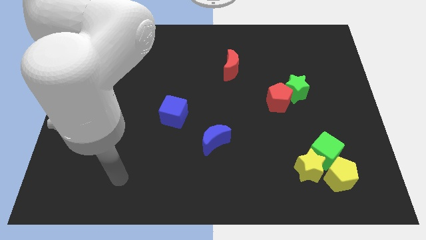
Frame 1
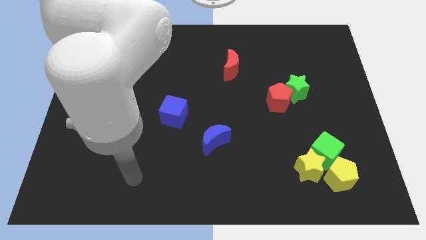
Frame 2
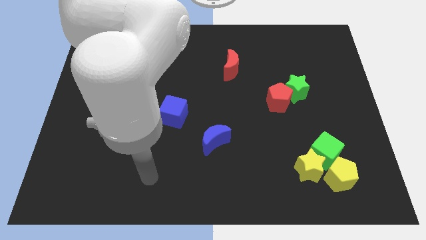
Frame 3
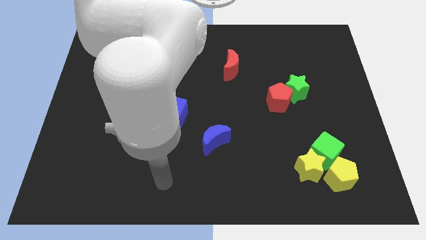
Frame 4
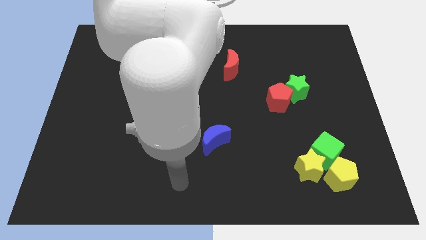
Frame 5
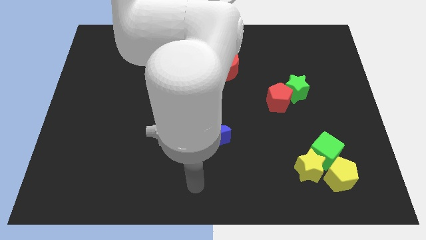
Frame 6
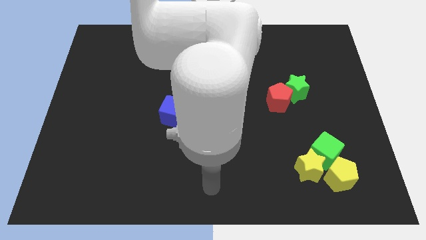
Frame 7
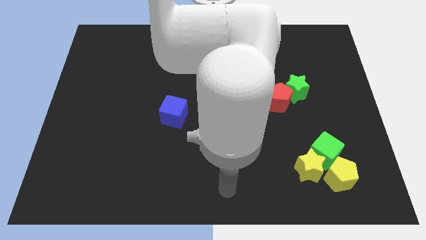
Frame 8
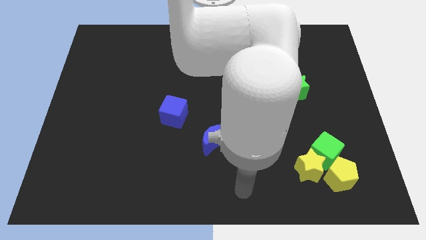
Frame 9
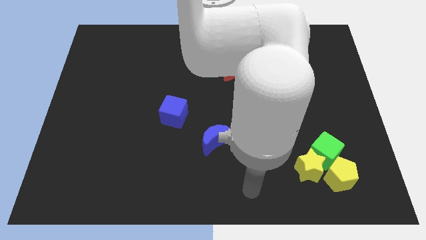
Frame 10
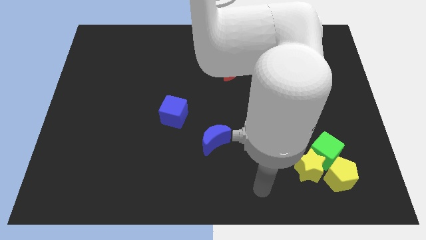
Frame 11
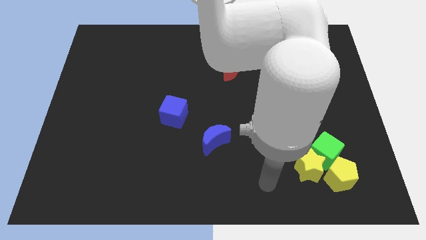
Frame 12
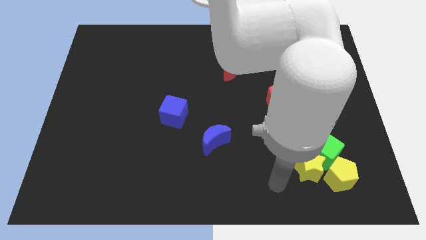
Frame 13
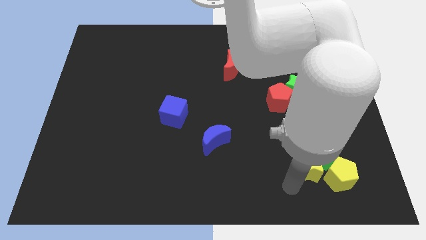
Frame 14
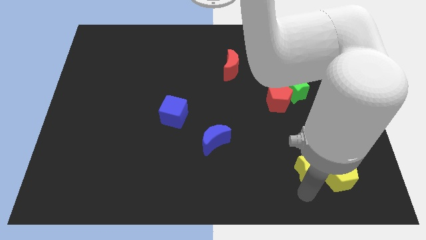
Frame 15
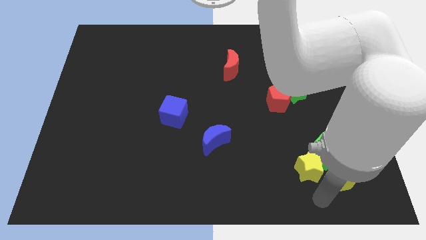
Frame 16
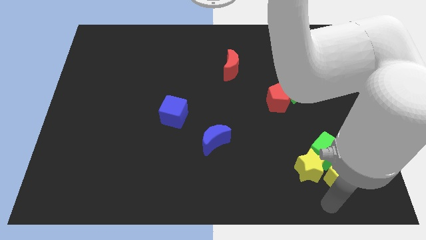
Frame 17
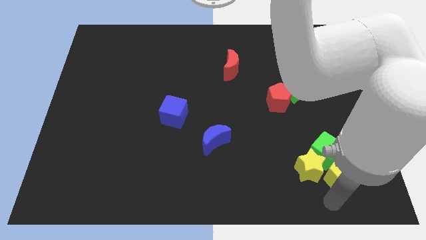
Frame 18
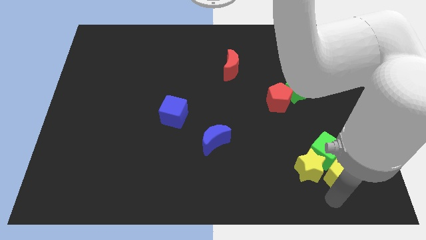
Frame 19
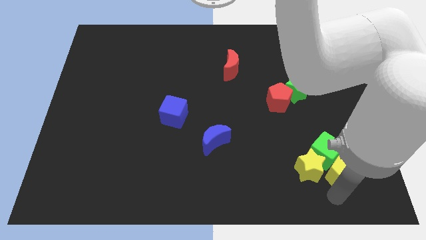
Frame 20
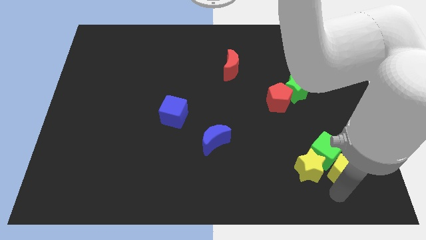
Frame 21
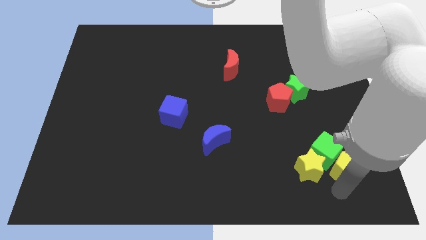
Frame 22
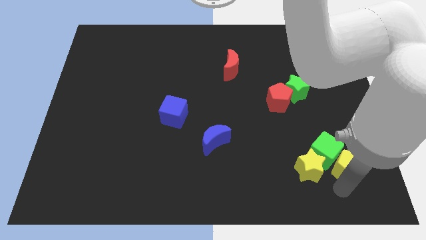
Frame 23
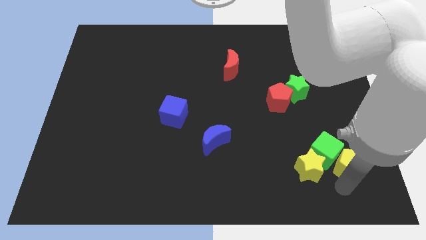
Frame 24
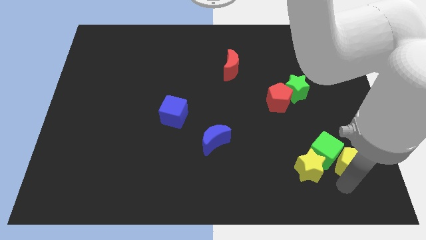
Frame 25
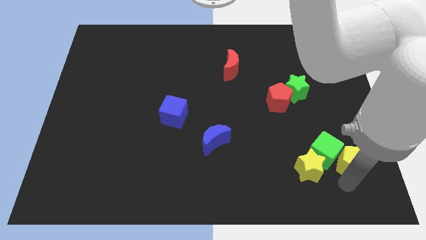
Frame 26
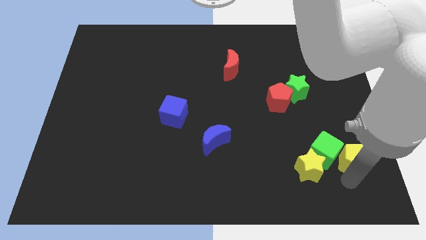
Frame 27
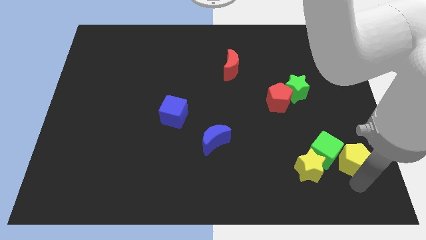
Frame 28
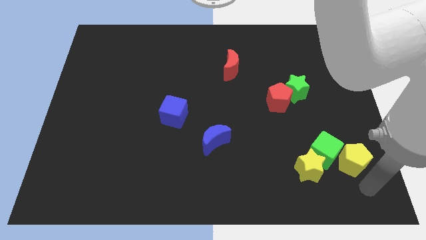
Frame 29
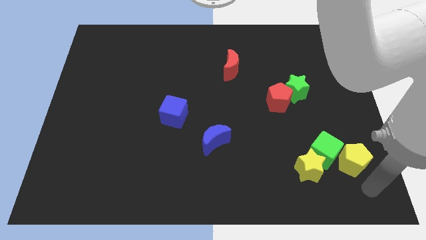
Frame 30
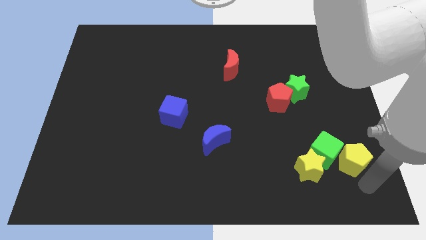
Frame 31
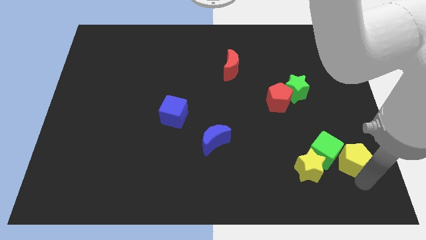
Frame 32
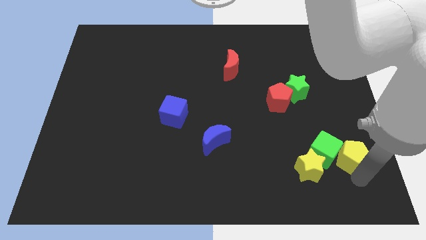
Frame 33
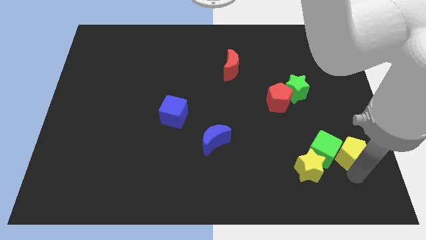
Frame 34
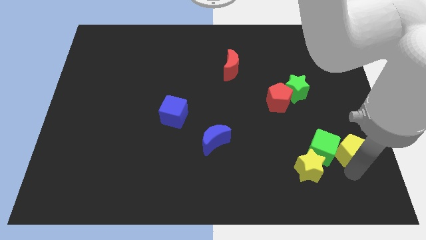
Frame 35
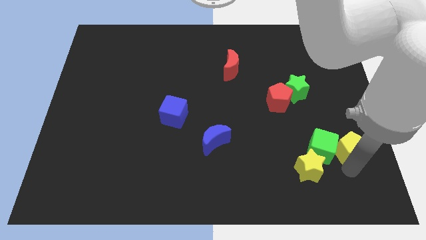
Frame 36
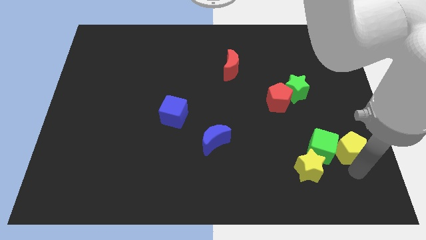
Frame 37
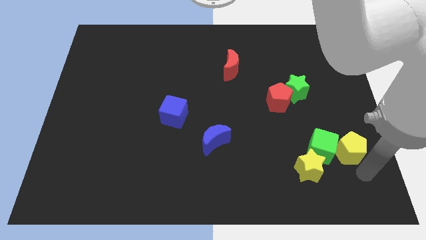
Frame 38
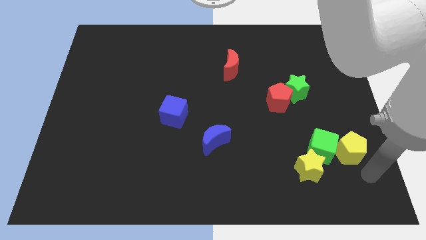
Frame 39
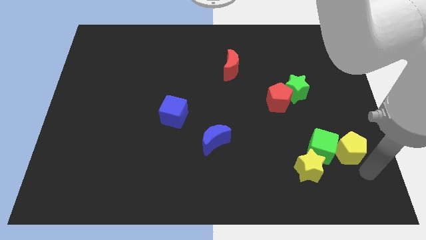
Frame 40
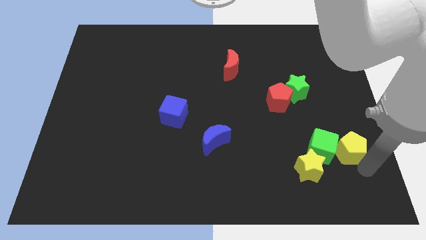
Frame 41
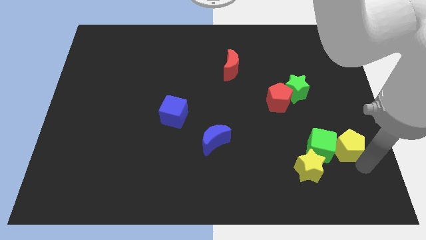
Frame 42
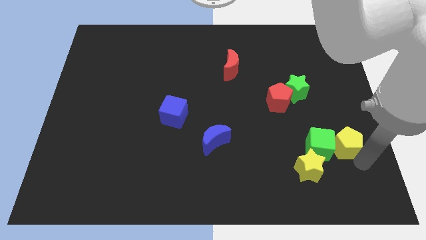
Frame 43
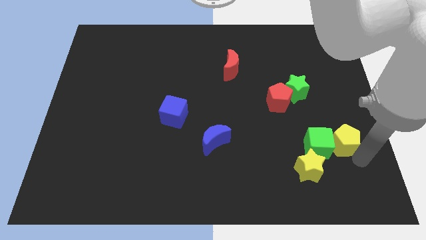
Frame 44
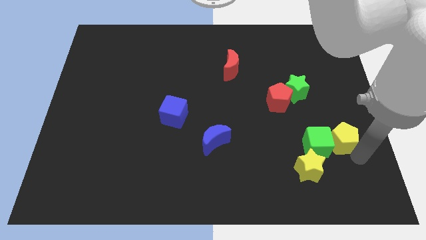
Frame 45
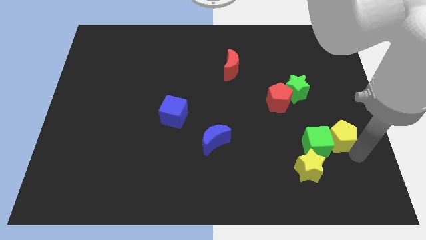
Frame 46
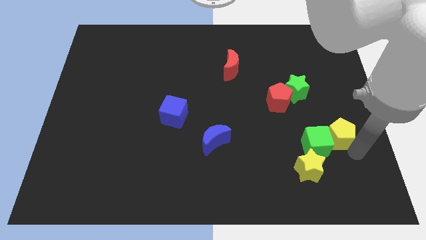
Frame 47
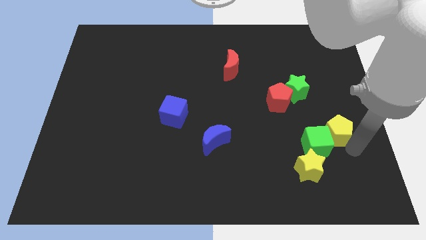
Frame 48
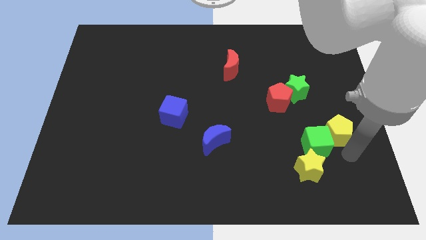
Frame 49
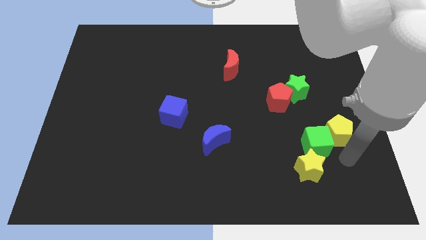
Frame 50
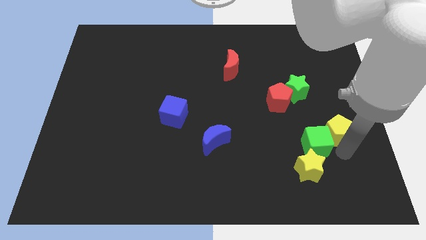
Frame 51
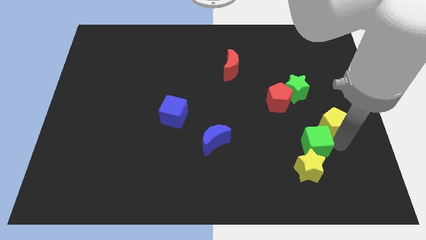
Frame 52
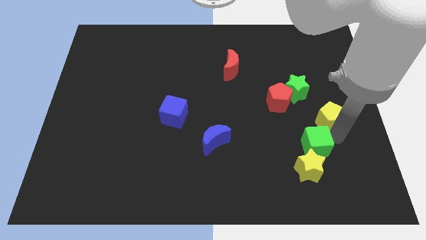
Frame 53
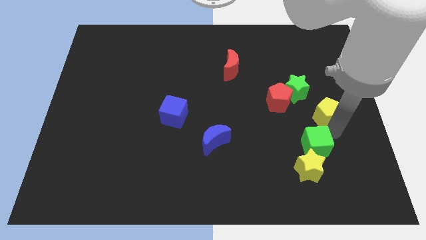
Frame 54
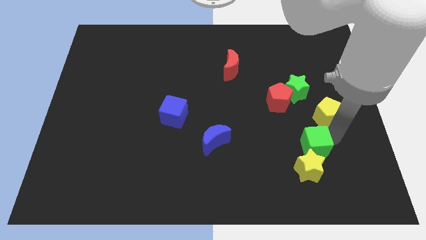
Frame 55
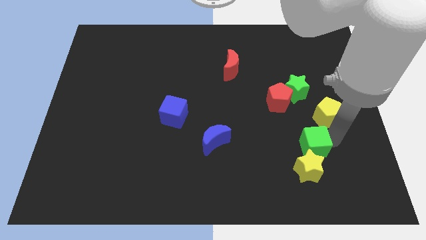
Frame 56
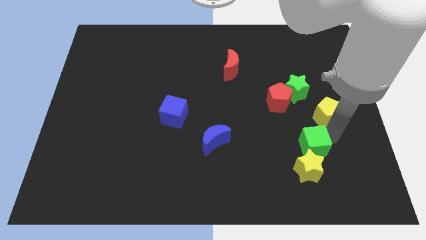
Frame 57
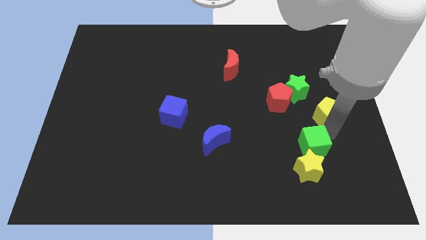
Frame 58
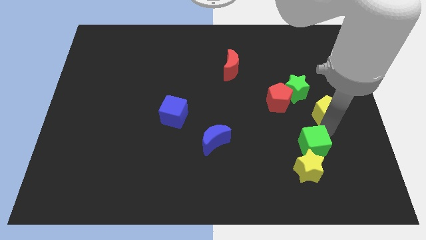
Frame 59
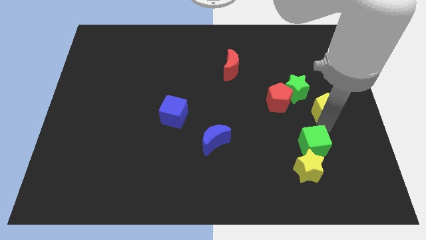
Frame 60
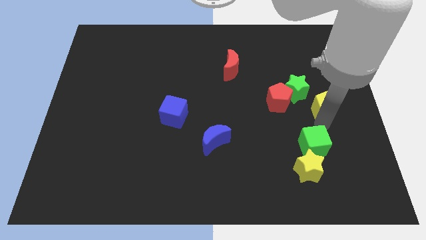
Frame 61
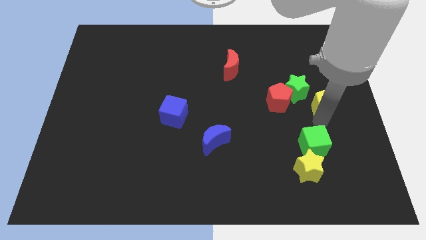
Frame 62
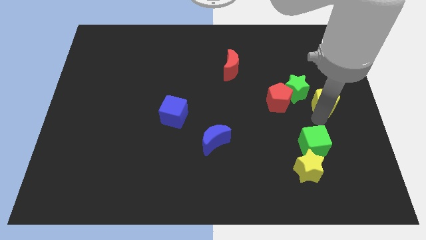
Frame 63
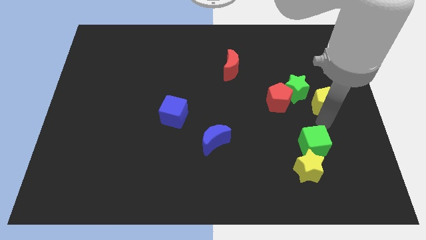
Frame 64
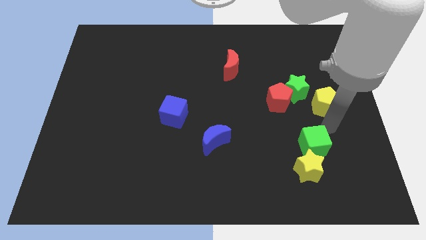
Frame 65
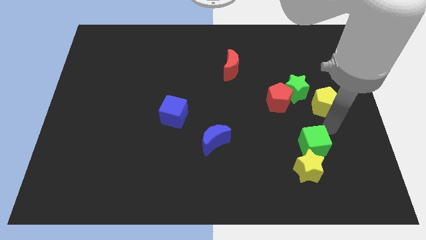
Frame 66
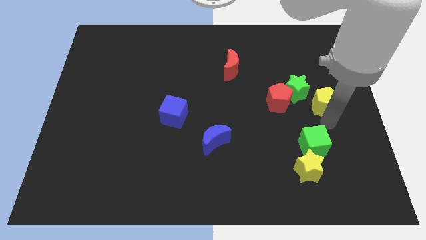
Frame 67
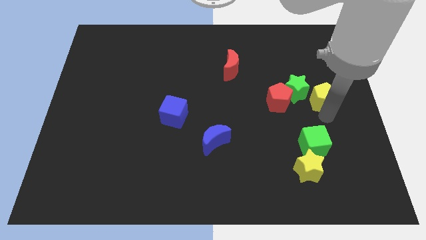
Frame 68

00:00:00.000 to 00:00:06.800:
move the yellow pentagon up

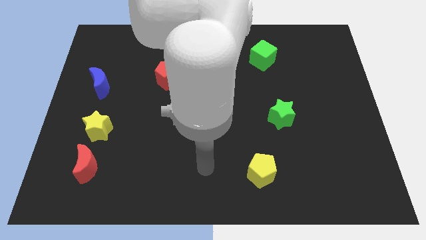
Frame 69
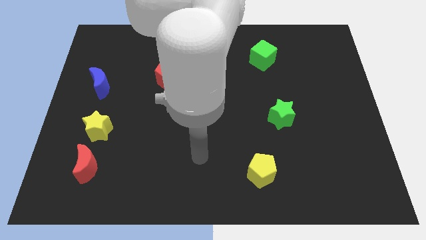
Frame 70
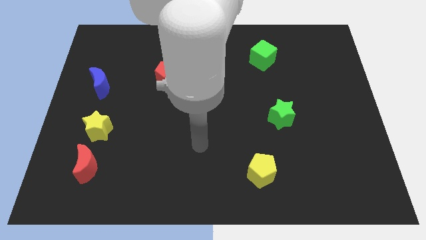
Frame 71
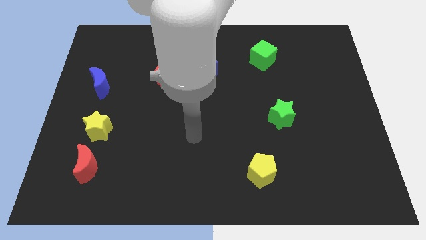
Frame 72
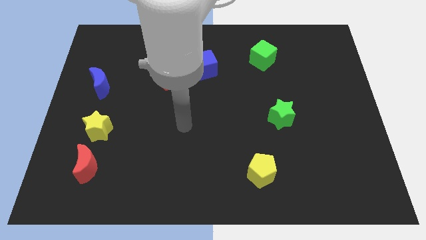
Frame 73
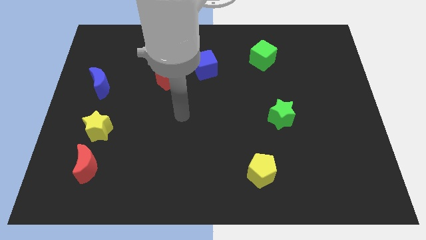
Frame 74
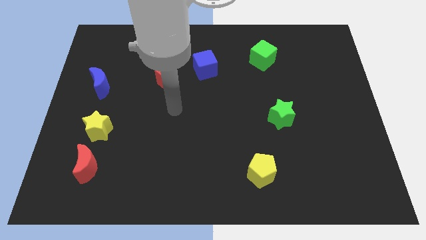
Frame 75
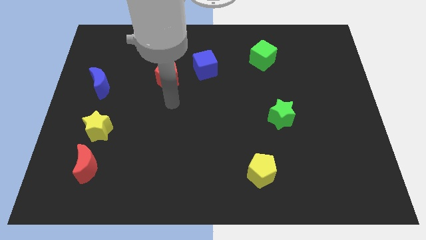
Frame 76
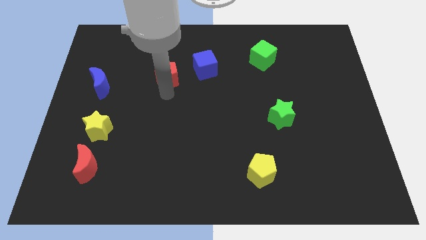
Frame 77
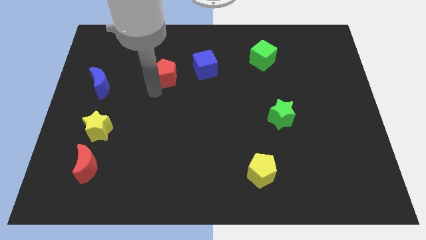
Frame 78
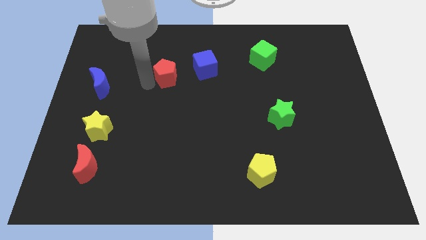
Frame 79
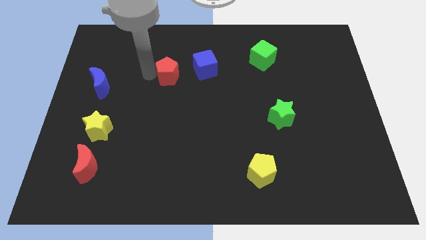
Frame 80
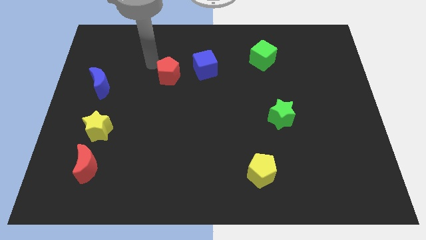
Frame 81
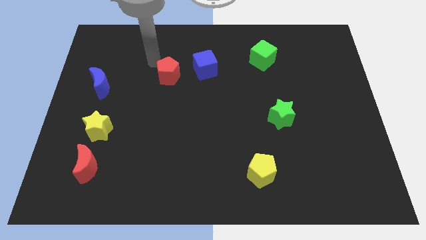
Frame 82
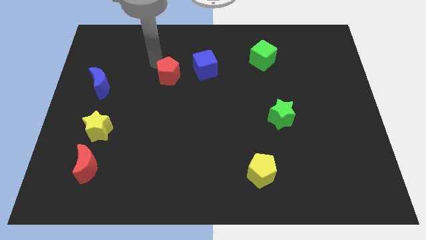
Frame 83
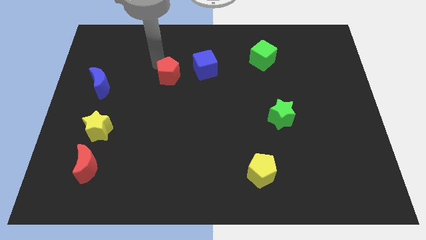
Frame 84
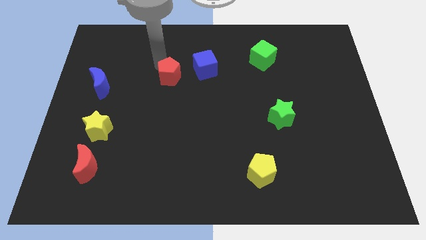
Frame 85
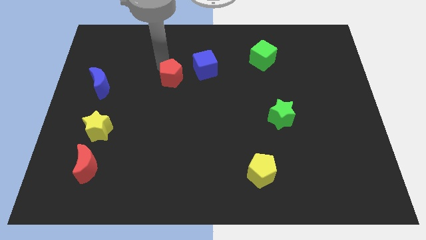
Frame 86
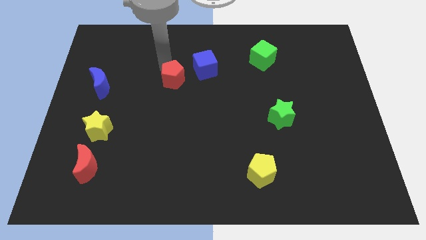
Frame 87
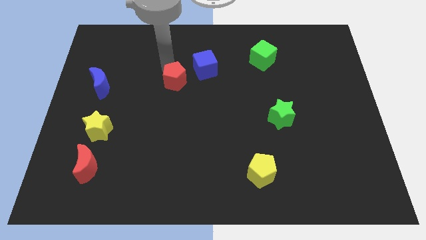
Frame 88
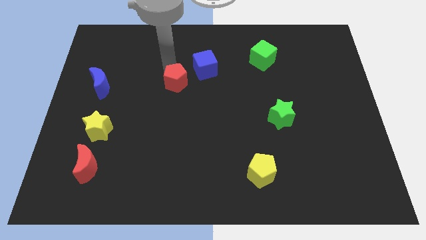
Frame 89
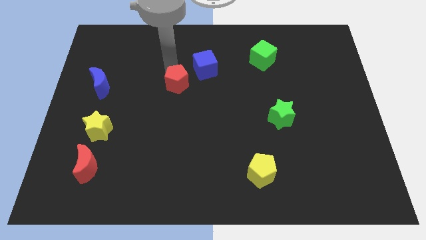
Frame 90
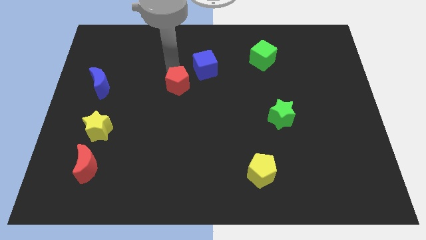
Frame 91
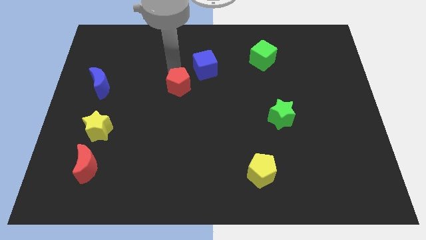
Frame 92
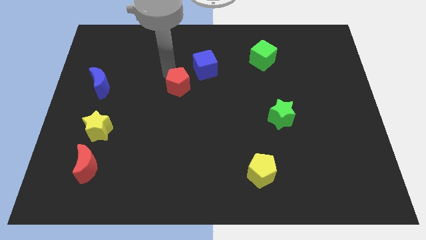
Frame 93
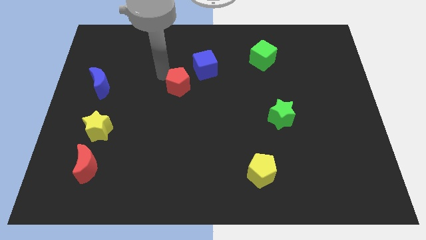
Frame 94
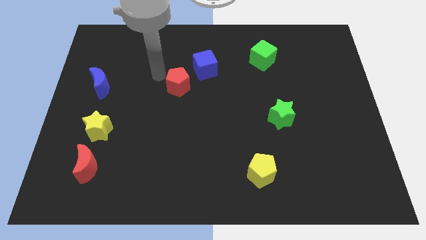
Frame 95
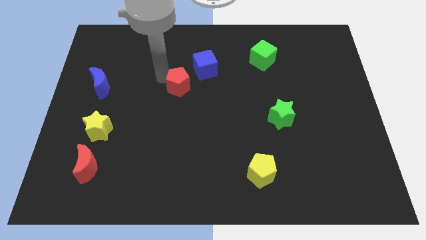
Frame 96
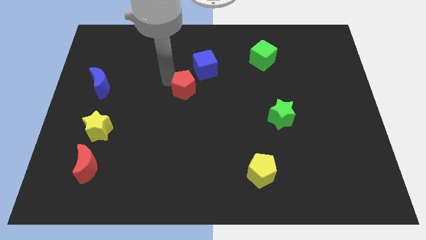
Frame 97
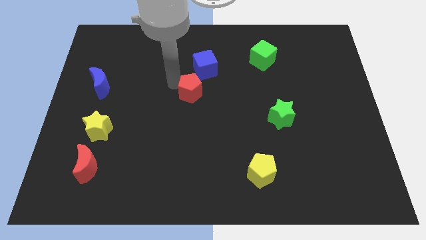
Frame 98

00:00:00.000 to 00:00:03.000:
push the red pentagon diagonally downwards and right somewhat
